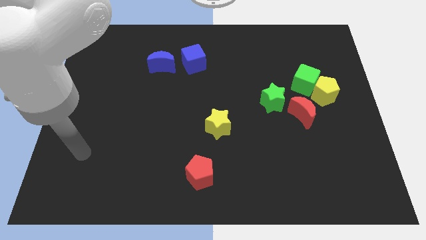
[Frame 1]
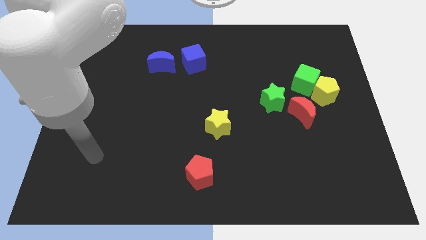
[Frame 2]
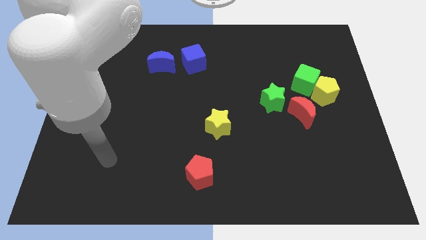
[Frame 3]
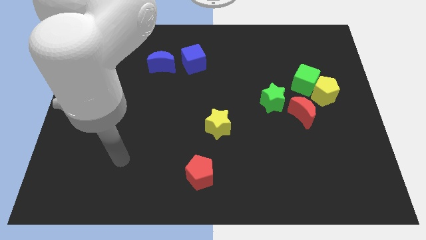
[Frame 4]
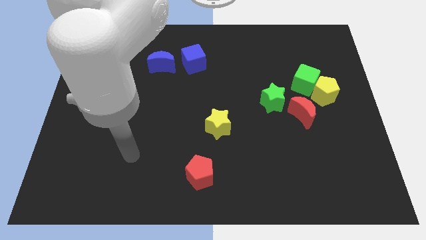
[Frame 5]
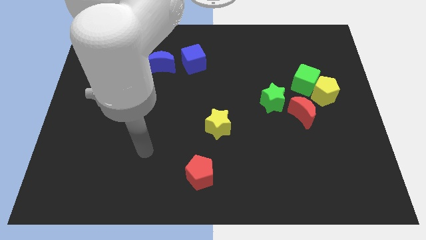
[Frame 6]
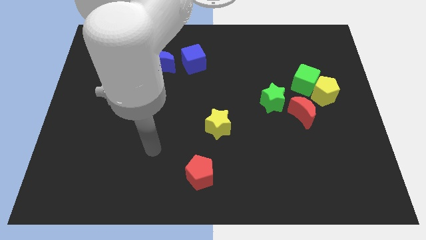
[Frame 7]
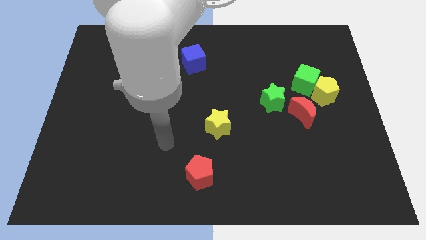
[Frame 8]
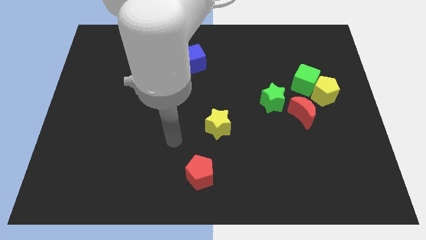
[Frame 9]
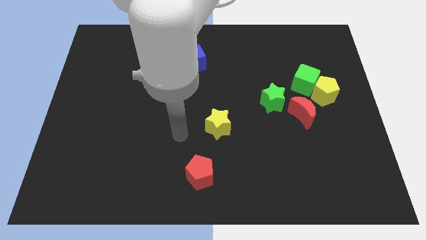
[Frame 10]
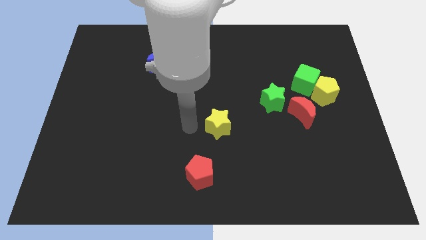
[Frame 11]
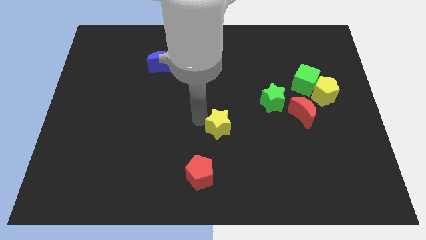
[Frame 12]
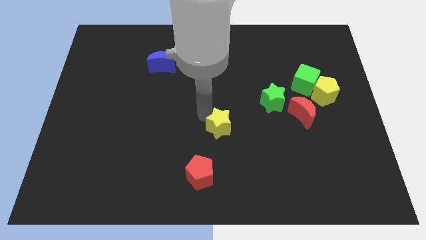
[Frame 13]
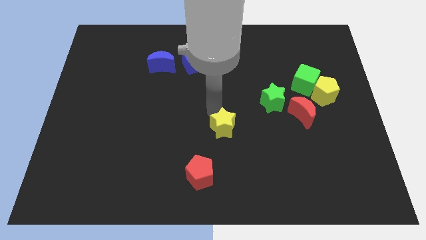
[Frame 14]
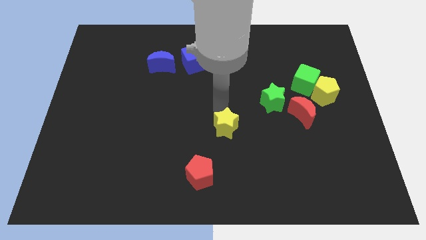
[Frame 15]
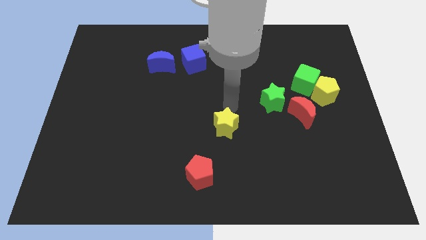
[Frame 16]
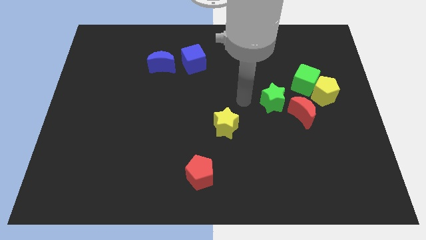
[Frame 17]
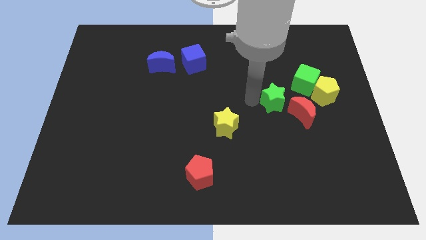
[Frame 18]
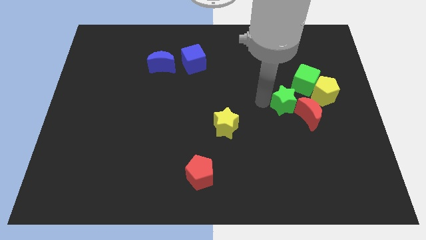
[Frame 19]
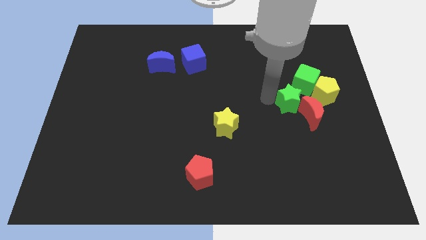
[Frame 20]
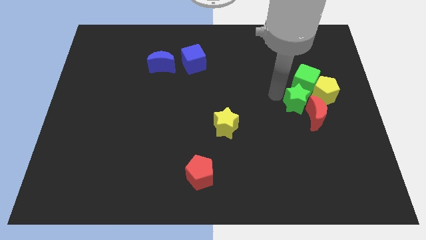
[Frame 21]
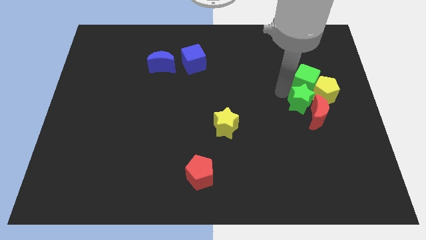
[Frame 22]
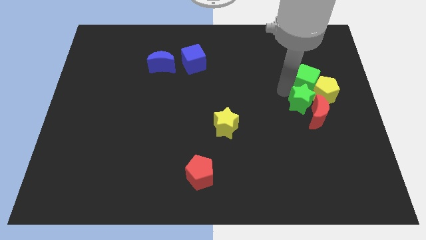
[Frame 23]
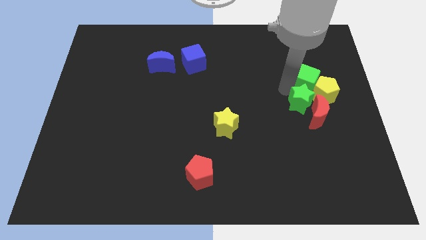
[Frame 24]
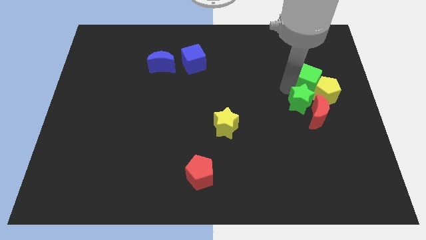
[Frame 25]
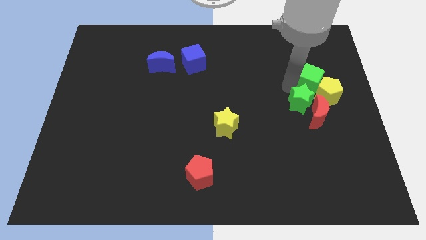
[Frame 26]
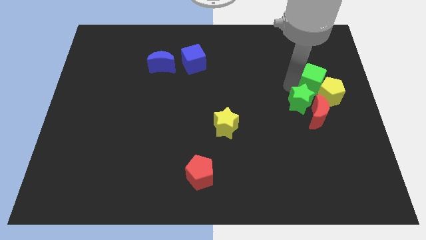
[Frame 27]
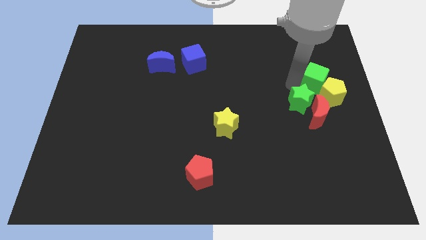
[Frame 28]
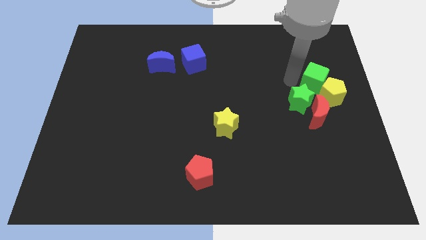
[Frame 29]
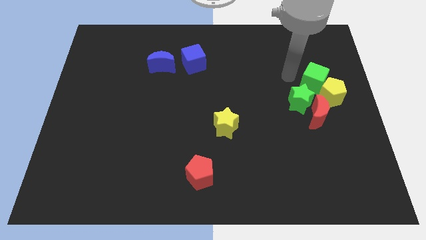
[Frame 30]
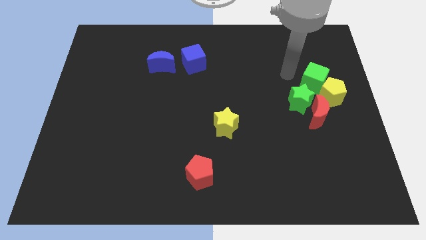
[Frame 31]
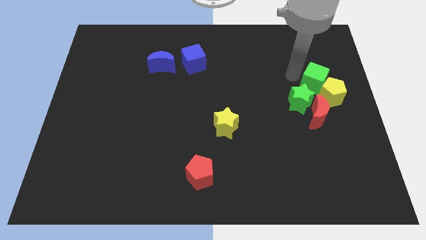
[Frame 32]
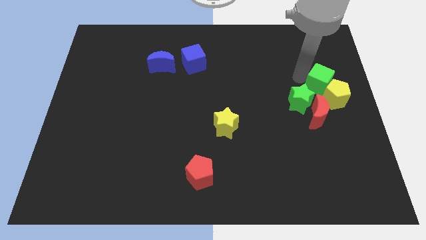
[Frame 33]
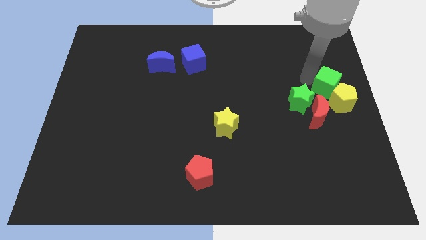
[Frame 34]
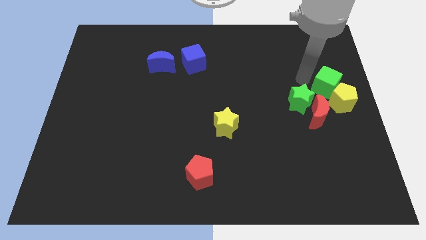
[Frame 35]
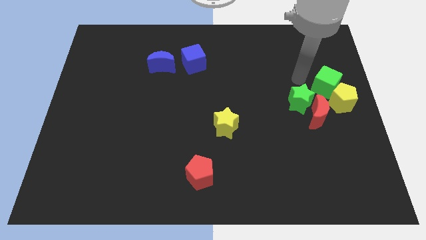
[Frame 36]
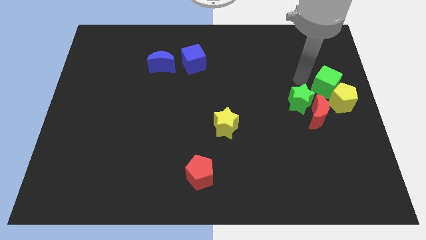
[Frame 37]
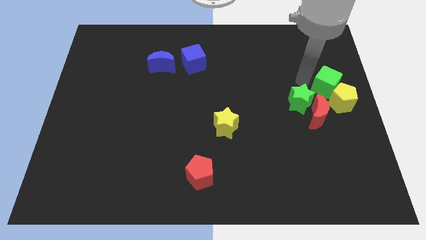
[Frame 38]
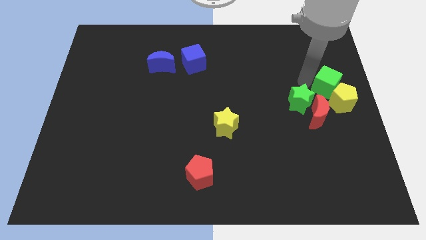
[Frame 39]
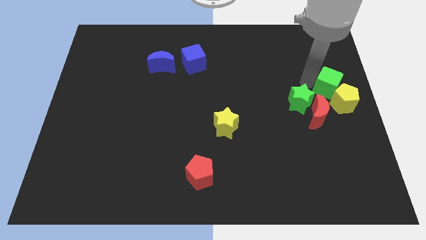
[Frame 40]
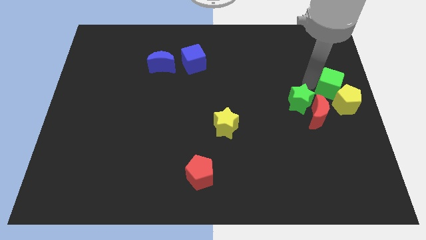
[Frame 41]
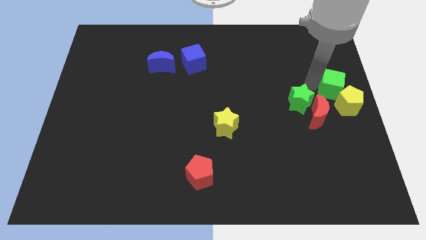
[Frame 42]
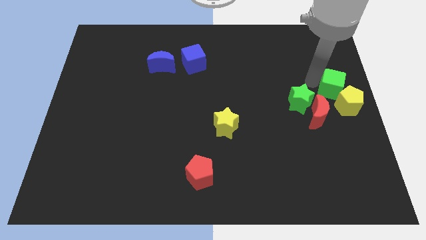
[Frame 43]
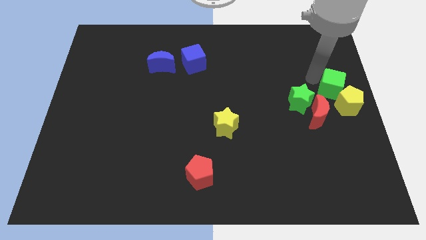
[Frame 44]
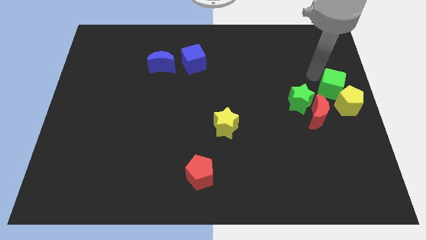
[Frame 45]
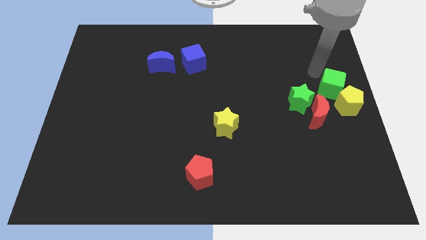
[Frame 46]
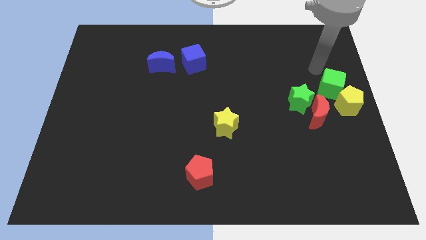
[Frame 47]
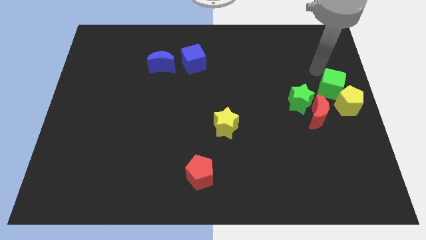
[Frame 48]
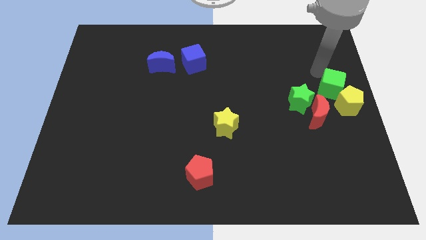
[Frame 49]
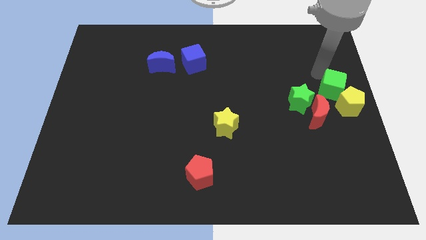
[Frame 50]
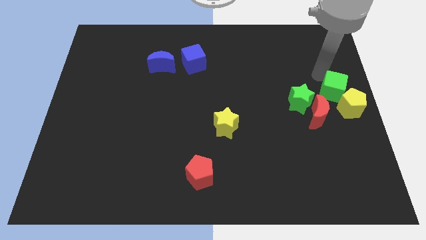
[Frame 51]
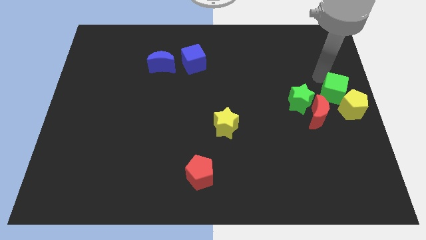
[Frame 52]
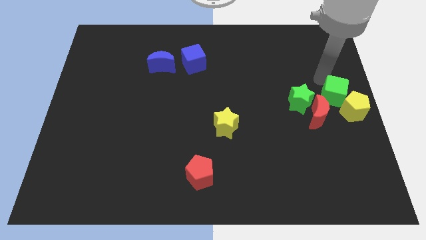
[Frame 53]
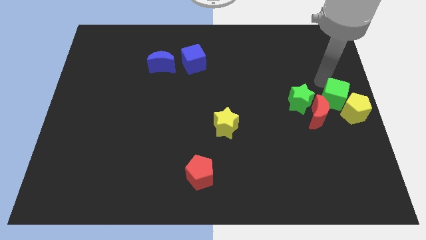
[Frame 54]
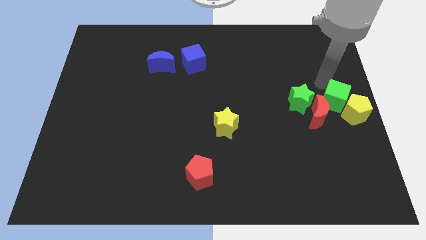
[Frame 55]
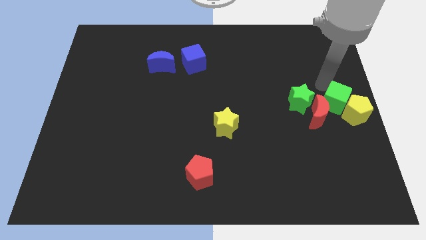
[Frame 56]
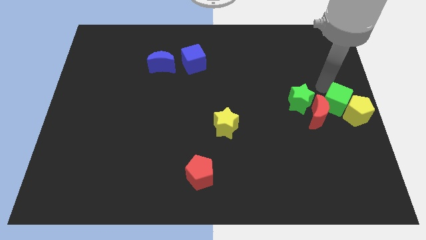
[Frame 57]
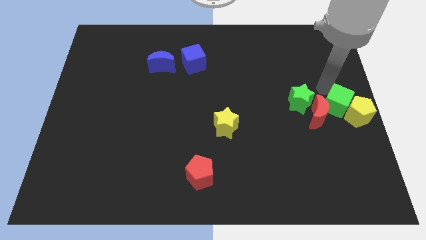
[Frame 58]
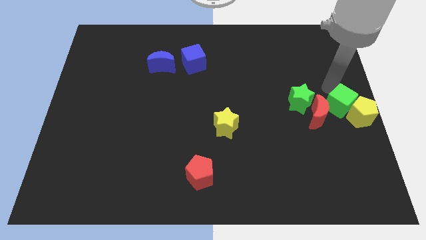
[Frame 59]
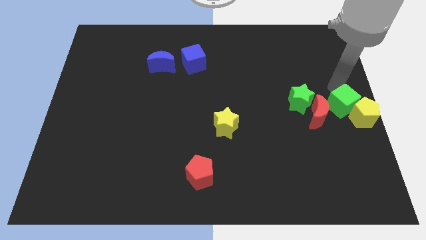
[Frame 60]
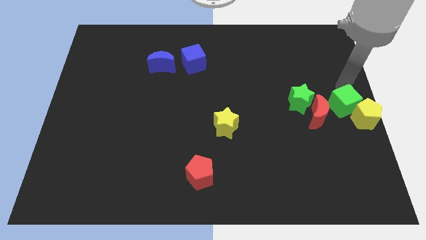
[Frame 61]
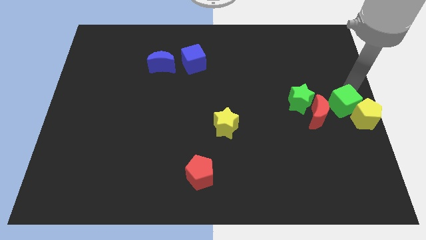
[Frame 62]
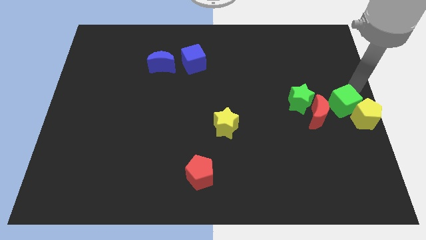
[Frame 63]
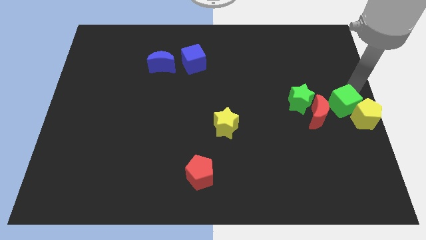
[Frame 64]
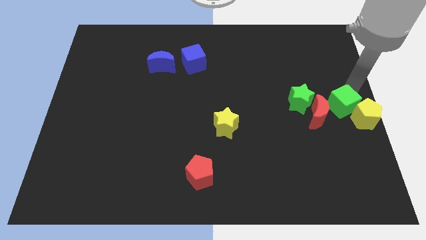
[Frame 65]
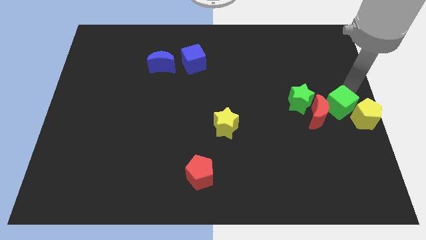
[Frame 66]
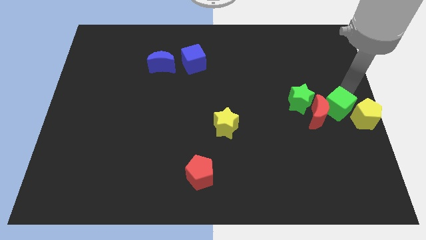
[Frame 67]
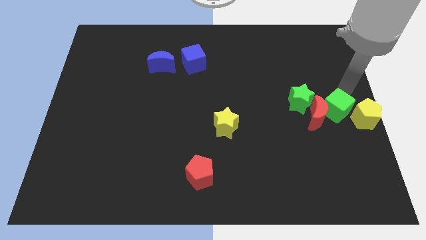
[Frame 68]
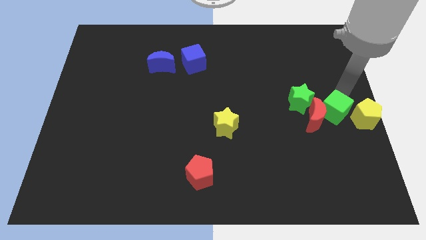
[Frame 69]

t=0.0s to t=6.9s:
push the green cube downwards a bit

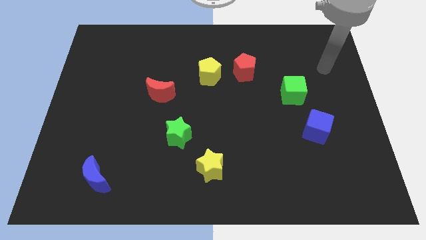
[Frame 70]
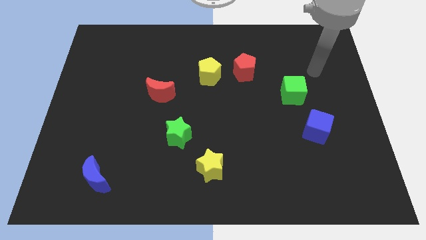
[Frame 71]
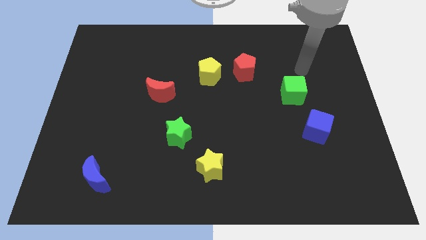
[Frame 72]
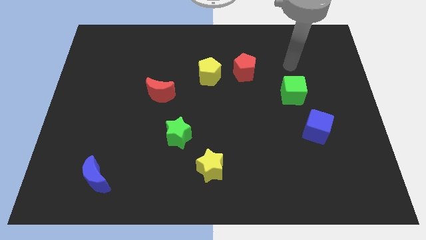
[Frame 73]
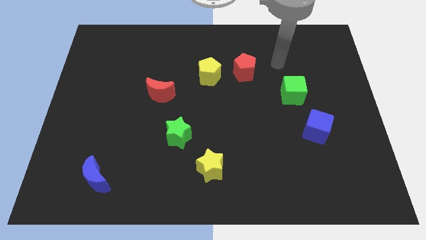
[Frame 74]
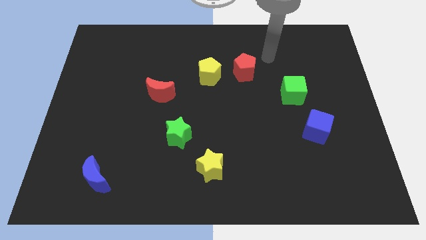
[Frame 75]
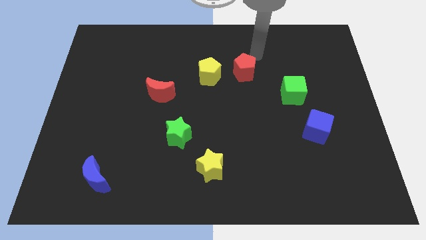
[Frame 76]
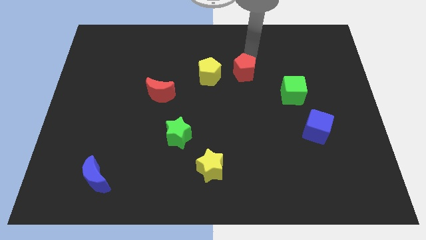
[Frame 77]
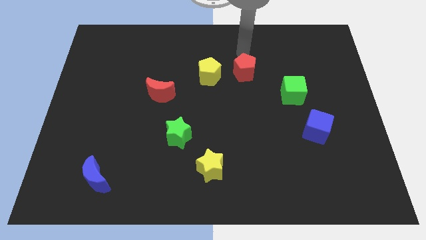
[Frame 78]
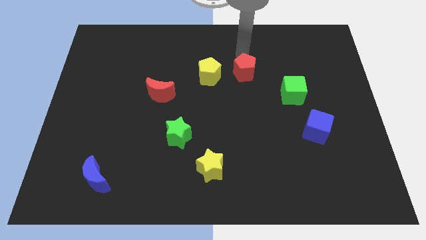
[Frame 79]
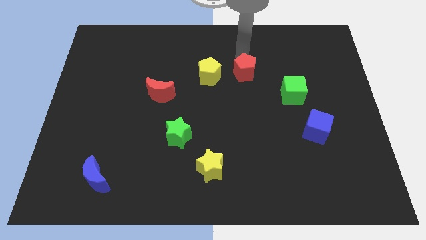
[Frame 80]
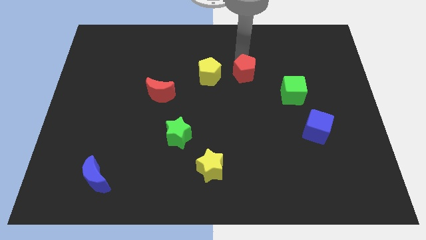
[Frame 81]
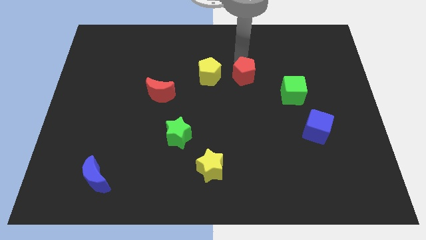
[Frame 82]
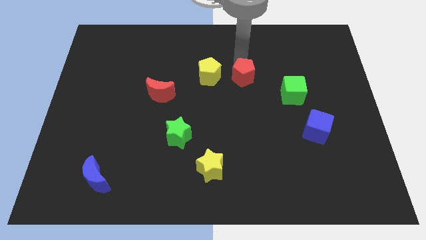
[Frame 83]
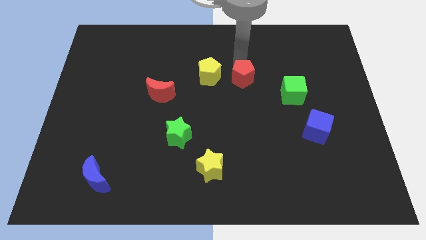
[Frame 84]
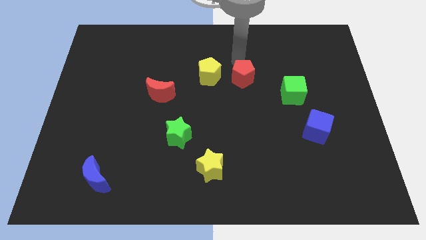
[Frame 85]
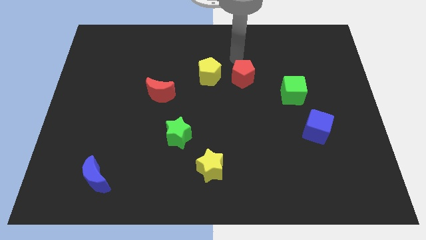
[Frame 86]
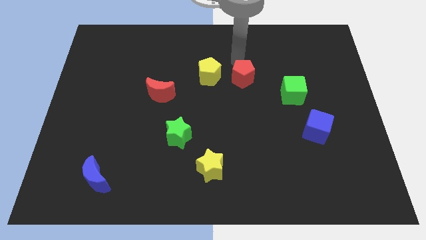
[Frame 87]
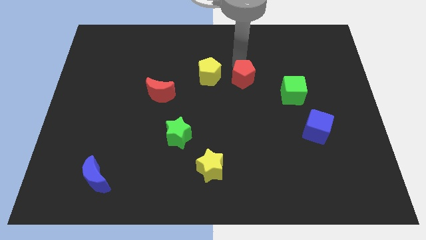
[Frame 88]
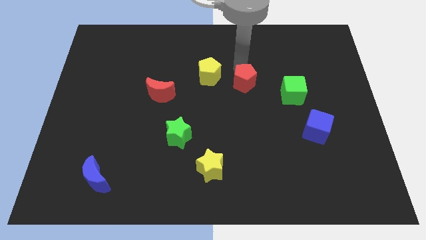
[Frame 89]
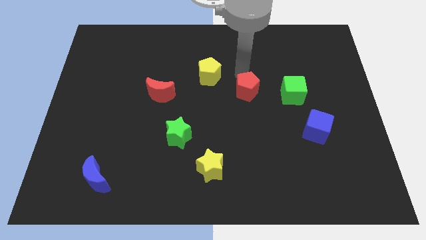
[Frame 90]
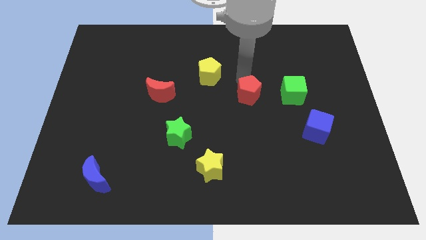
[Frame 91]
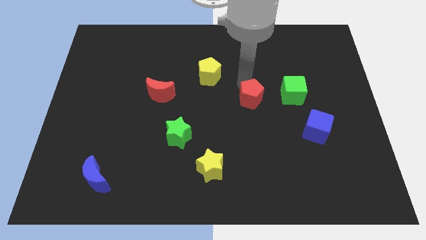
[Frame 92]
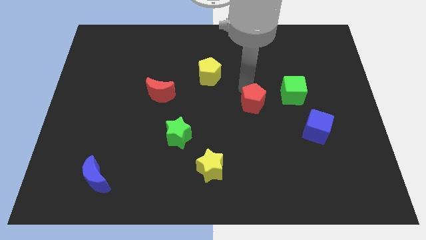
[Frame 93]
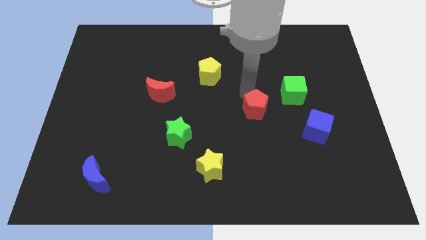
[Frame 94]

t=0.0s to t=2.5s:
move the red pentagon somewhat downwards and to the right
